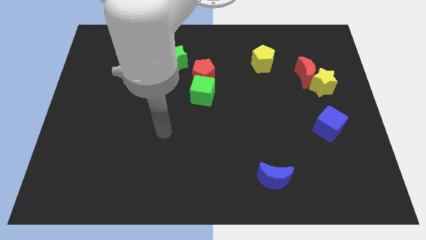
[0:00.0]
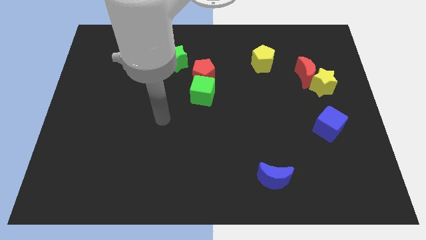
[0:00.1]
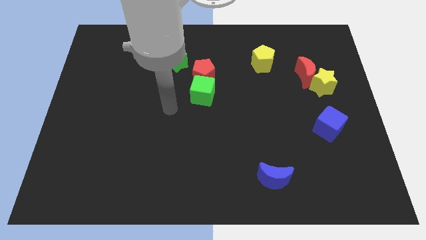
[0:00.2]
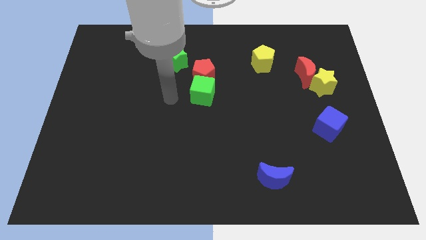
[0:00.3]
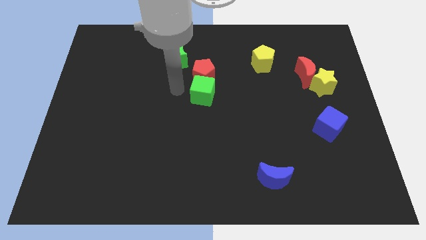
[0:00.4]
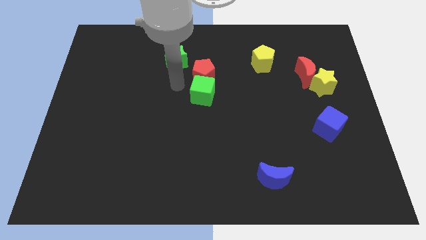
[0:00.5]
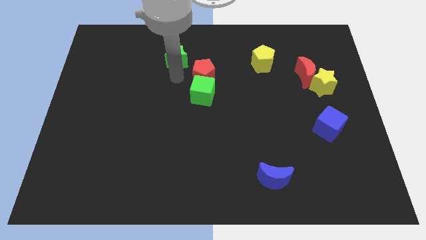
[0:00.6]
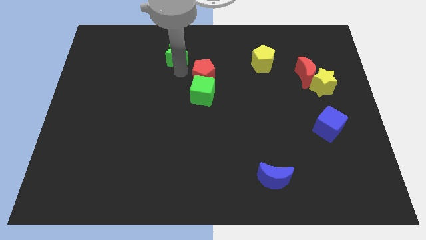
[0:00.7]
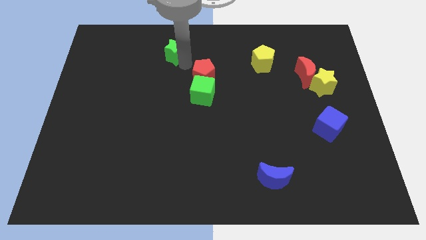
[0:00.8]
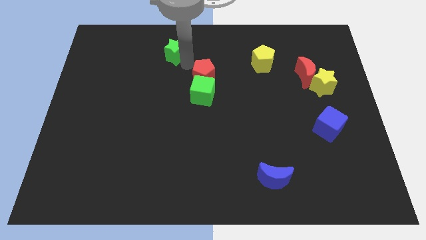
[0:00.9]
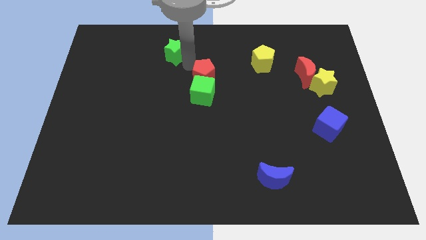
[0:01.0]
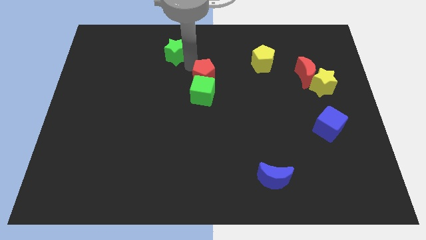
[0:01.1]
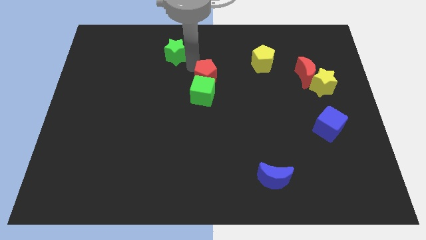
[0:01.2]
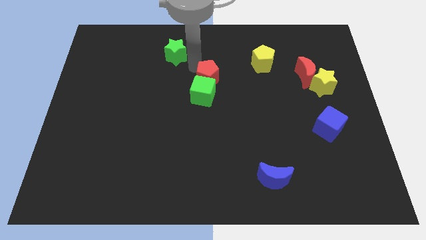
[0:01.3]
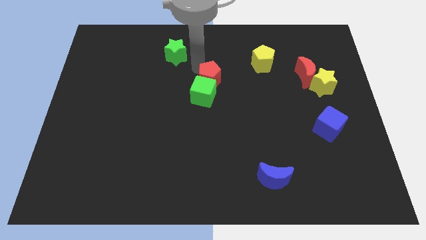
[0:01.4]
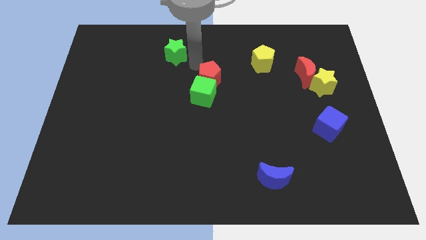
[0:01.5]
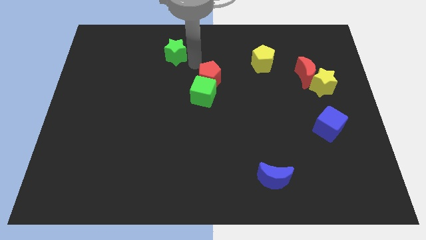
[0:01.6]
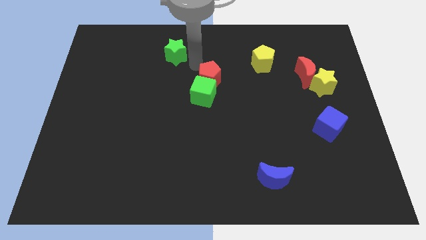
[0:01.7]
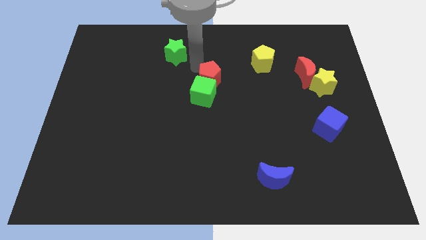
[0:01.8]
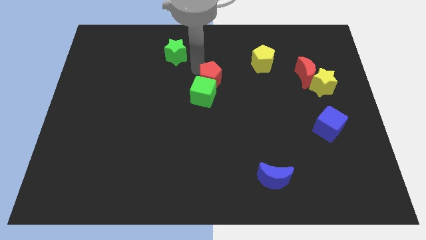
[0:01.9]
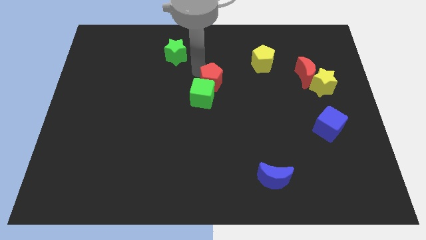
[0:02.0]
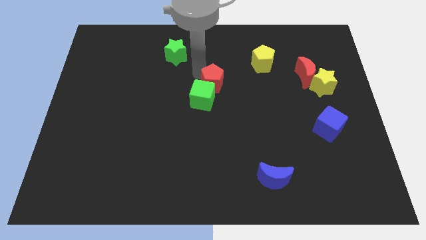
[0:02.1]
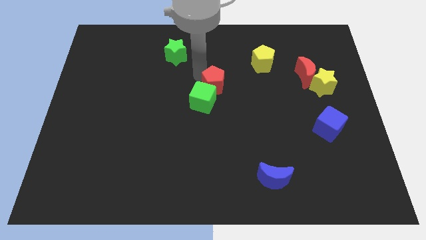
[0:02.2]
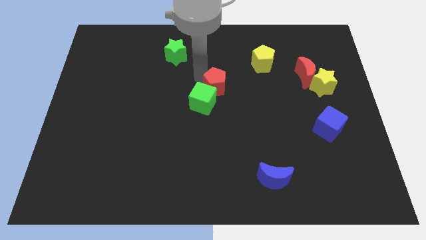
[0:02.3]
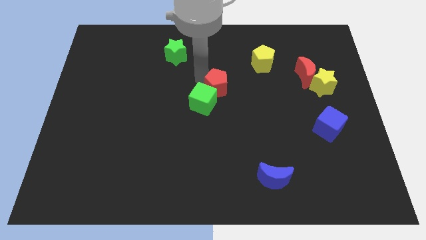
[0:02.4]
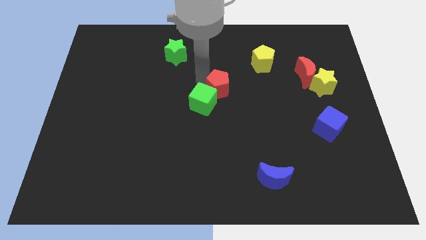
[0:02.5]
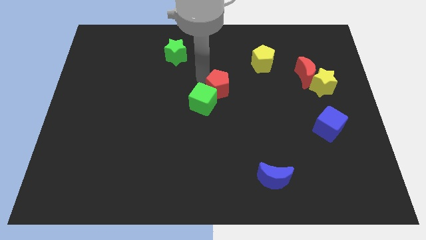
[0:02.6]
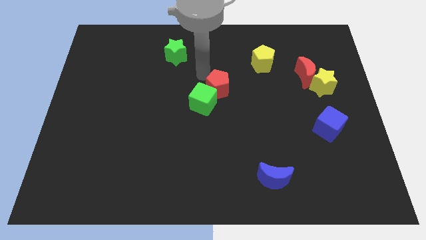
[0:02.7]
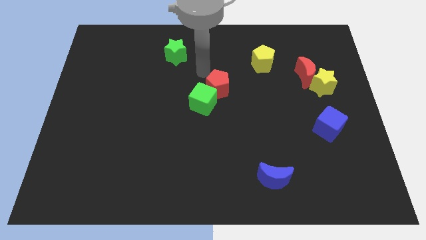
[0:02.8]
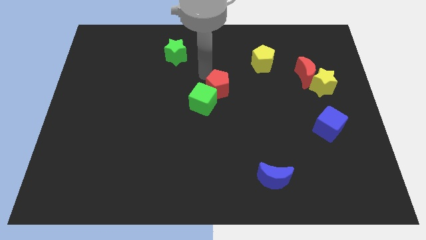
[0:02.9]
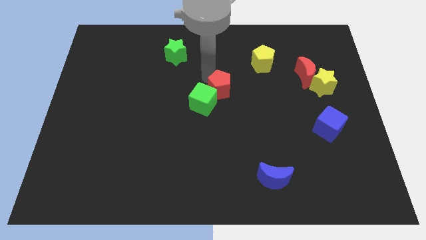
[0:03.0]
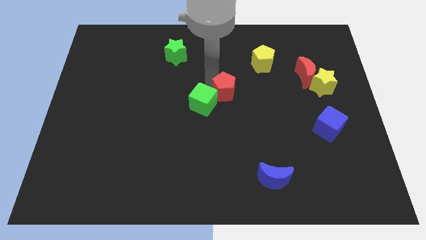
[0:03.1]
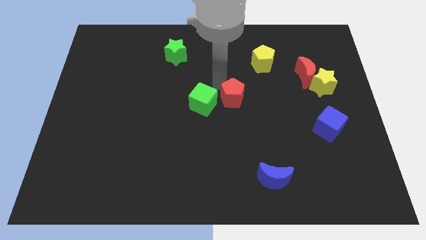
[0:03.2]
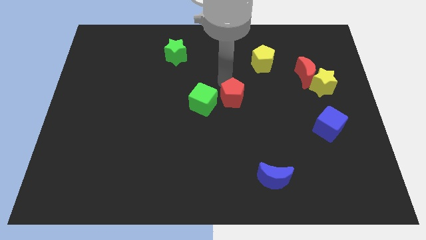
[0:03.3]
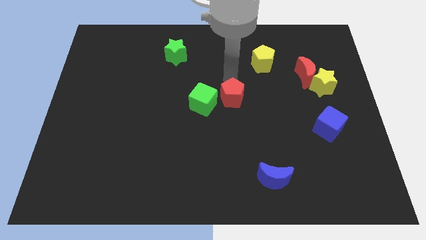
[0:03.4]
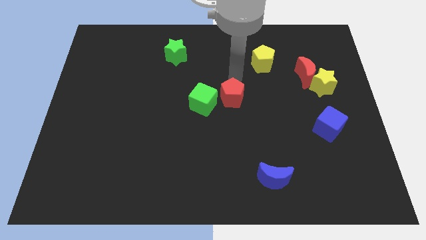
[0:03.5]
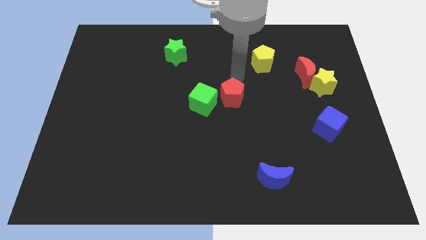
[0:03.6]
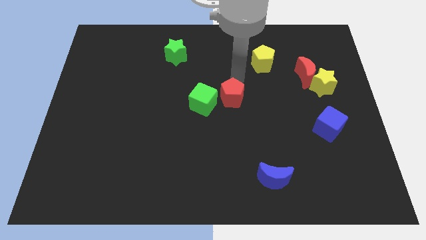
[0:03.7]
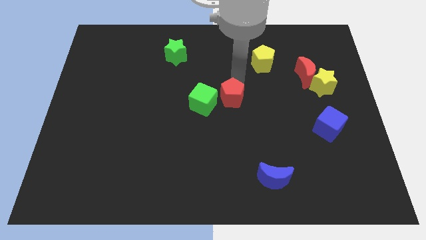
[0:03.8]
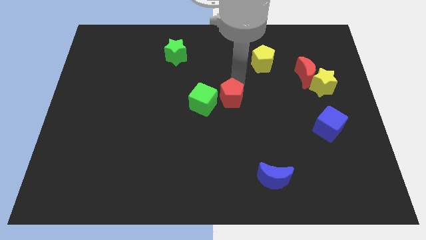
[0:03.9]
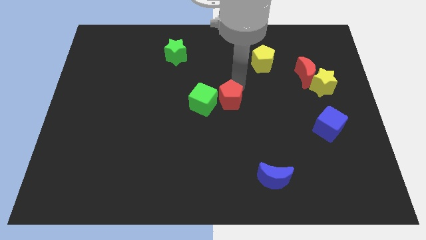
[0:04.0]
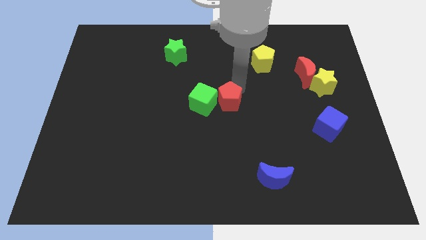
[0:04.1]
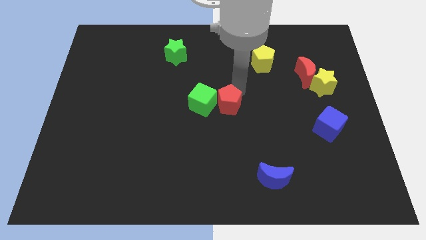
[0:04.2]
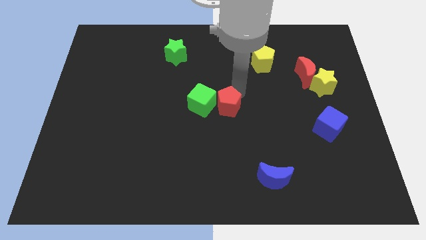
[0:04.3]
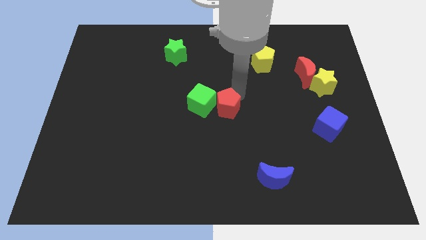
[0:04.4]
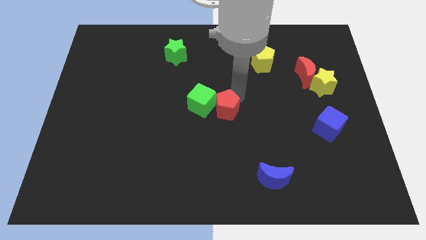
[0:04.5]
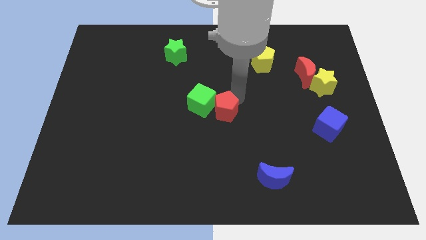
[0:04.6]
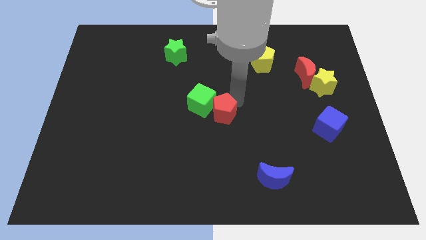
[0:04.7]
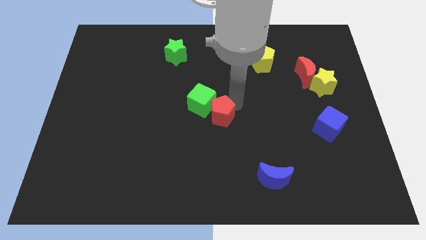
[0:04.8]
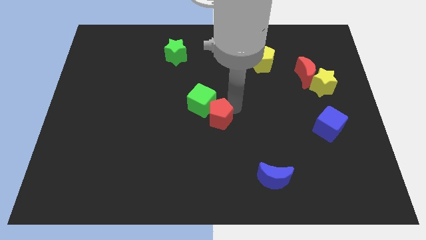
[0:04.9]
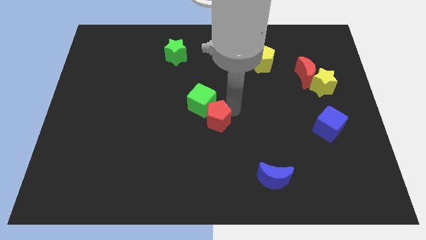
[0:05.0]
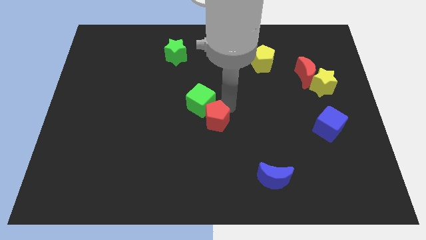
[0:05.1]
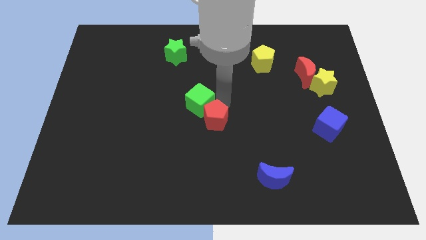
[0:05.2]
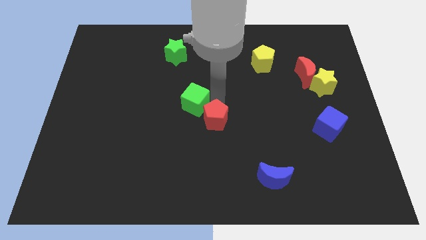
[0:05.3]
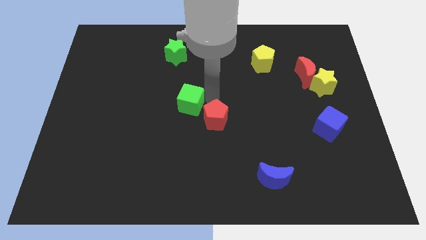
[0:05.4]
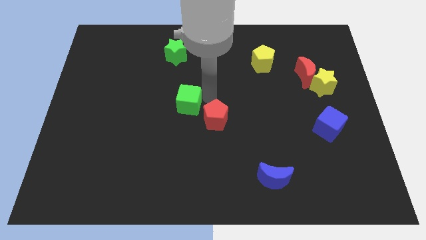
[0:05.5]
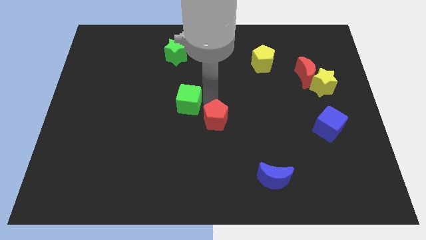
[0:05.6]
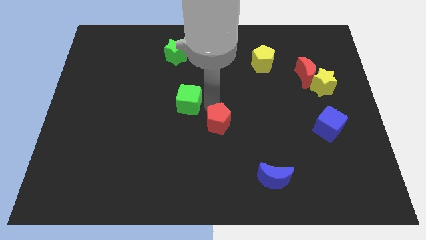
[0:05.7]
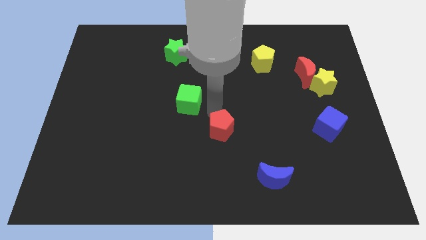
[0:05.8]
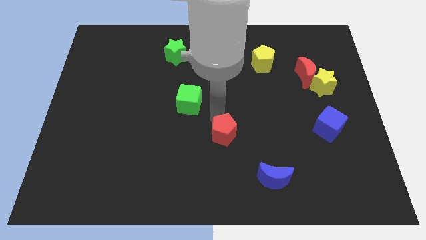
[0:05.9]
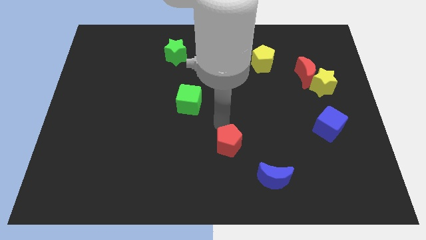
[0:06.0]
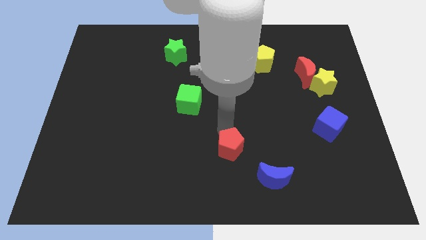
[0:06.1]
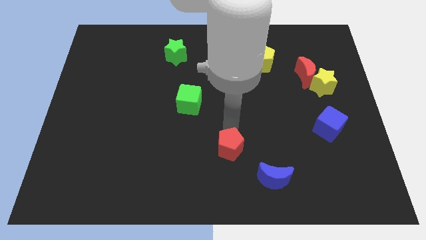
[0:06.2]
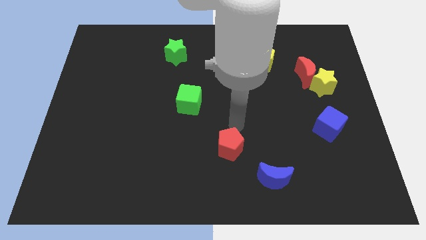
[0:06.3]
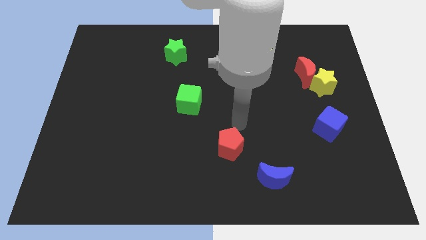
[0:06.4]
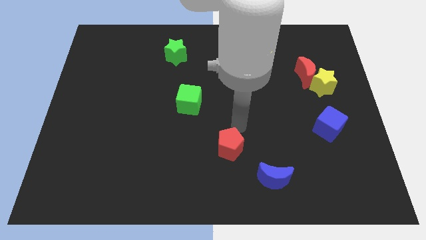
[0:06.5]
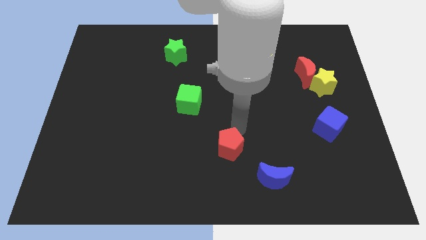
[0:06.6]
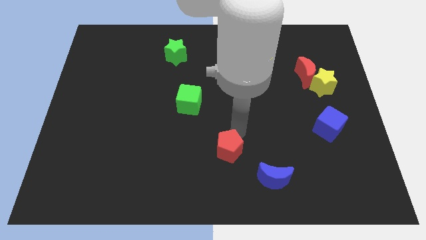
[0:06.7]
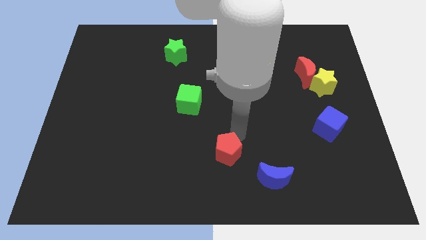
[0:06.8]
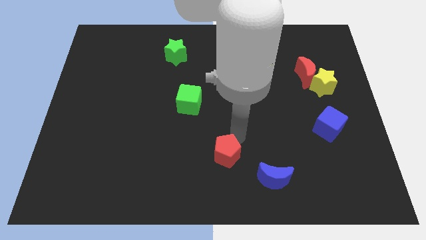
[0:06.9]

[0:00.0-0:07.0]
slide the red pentagon to the bottom
